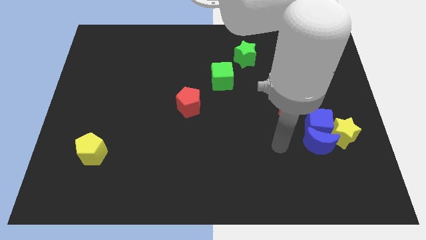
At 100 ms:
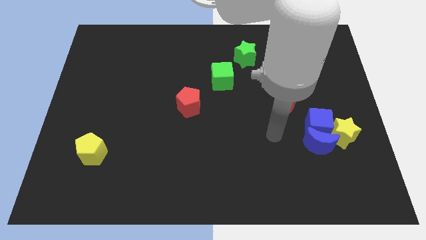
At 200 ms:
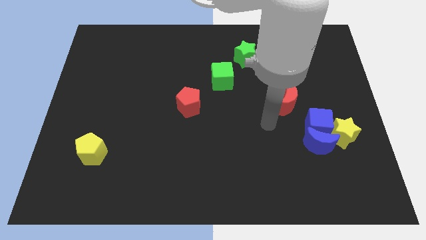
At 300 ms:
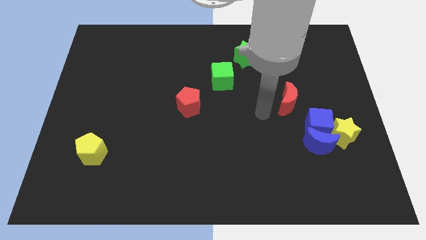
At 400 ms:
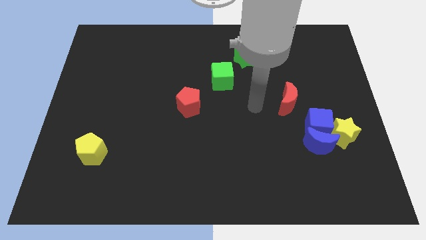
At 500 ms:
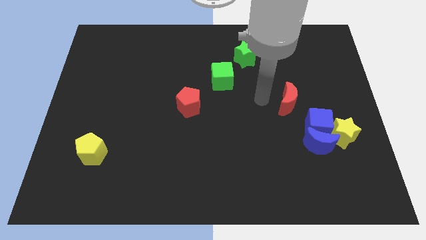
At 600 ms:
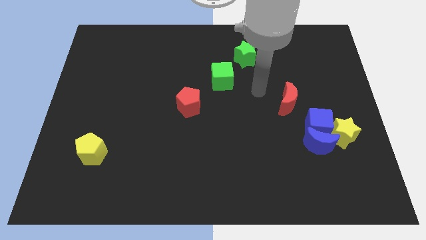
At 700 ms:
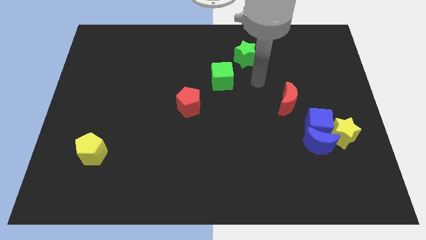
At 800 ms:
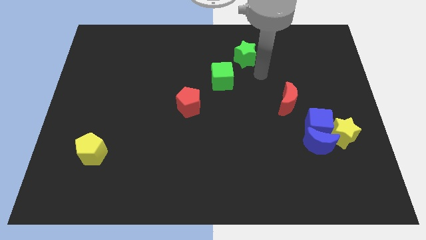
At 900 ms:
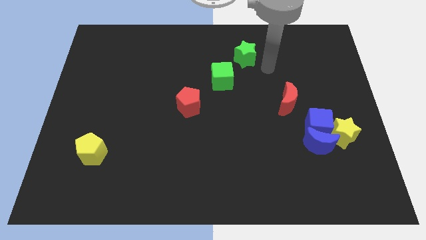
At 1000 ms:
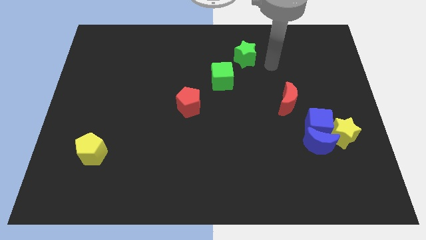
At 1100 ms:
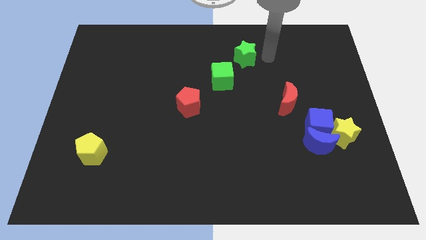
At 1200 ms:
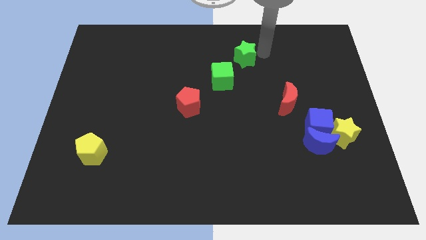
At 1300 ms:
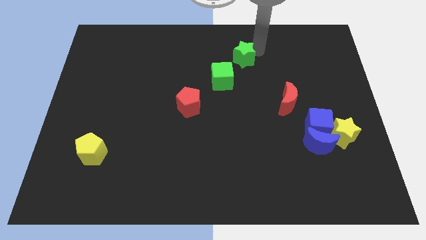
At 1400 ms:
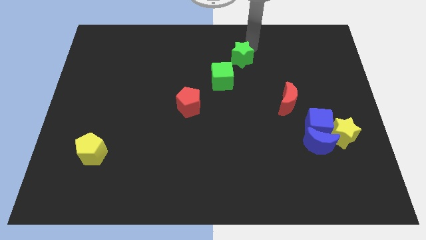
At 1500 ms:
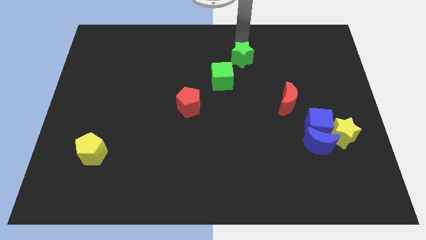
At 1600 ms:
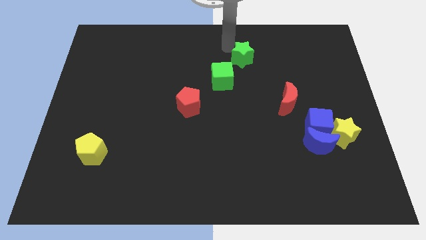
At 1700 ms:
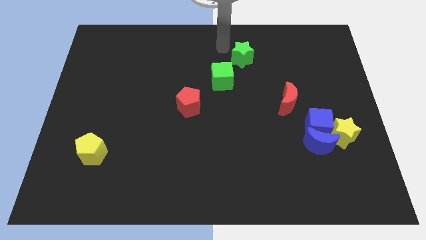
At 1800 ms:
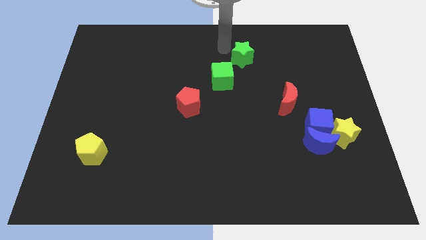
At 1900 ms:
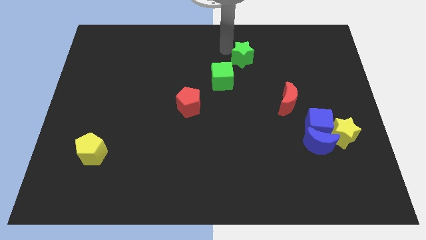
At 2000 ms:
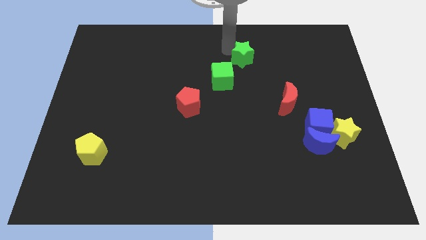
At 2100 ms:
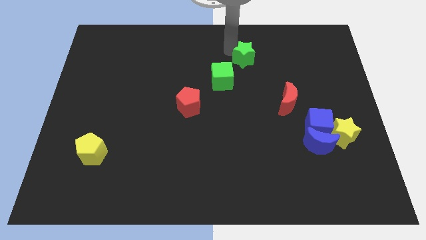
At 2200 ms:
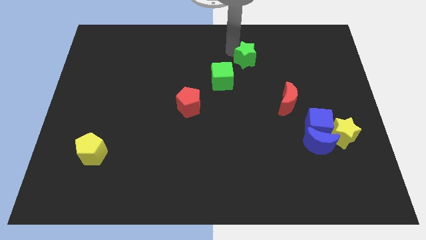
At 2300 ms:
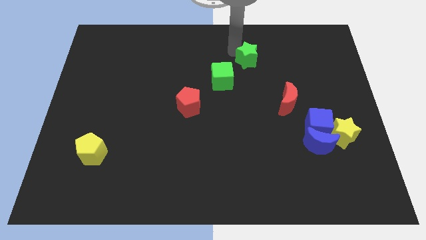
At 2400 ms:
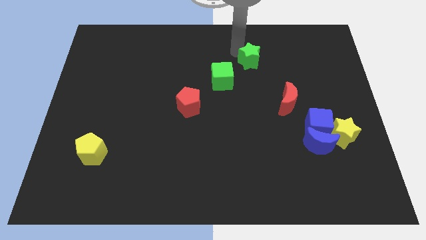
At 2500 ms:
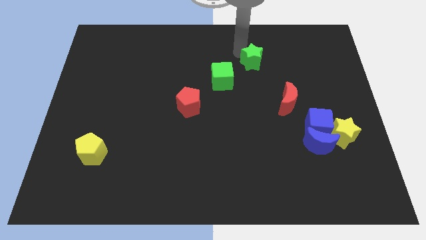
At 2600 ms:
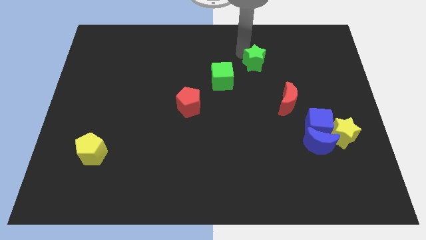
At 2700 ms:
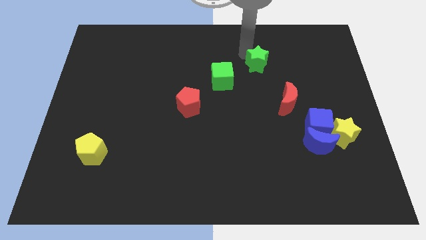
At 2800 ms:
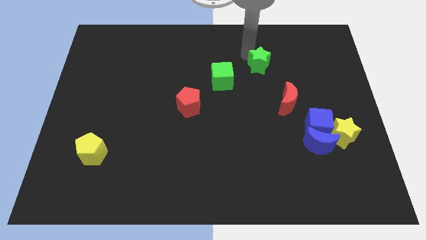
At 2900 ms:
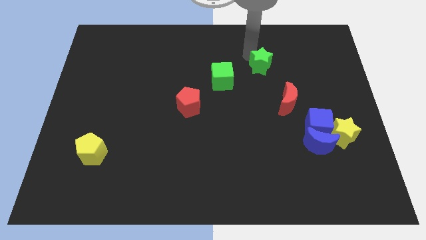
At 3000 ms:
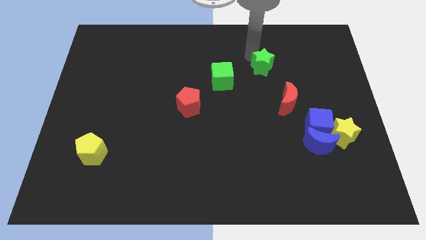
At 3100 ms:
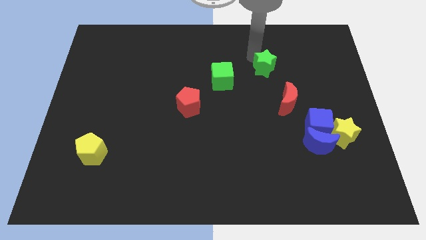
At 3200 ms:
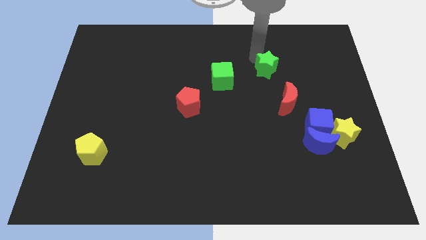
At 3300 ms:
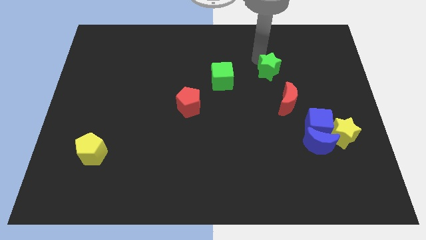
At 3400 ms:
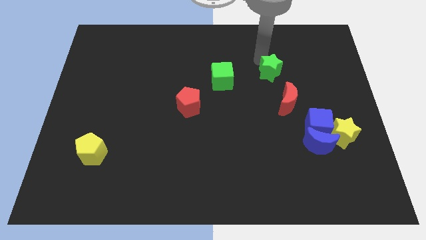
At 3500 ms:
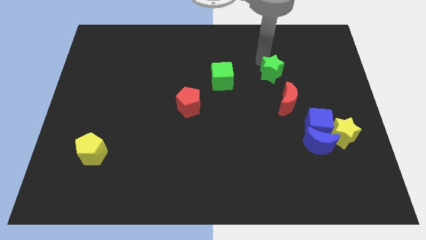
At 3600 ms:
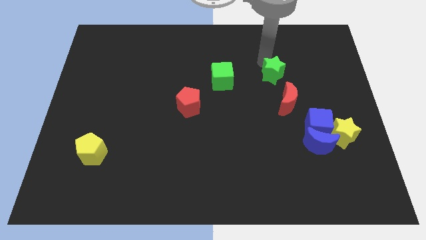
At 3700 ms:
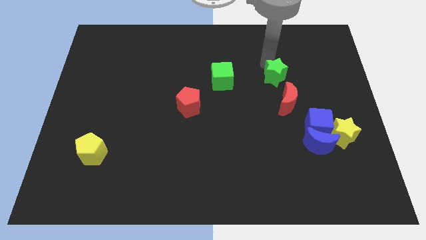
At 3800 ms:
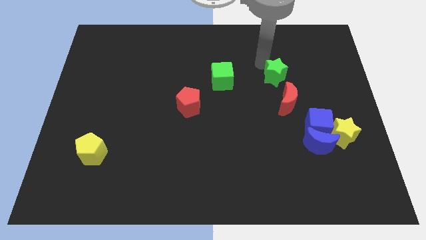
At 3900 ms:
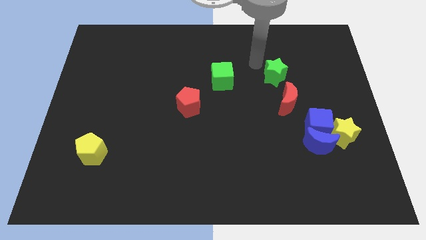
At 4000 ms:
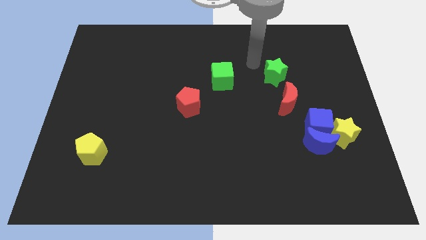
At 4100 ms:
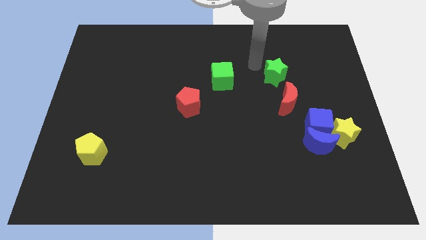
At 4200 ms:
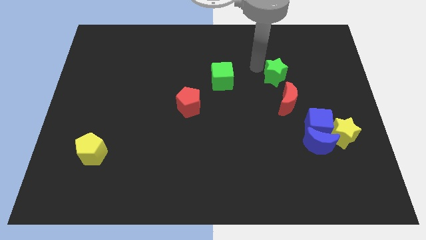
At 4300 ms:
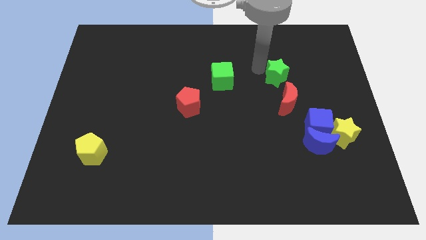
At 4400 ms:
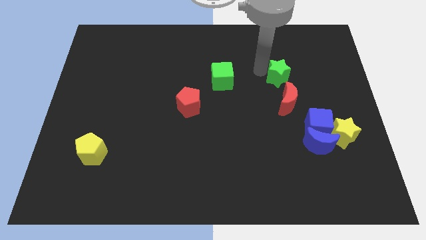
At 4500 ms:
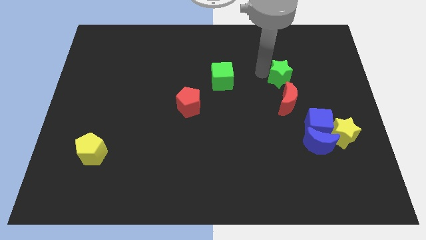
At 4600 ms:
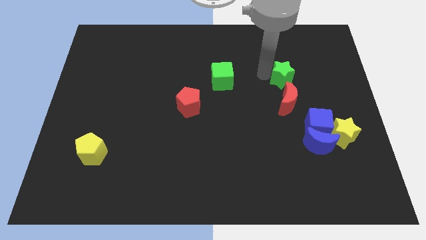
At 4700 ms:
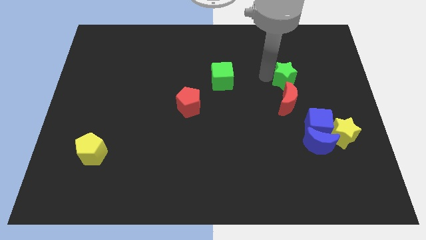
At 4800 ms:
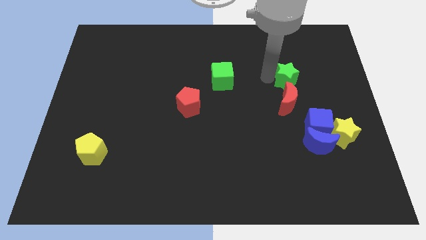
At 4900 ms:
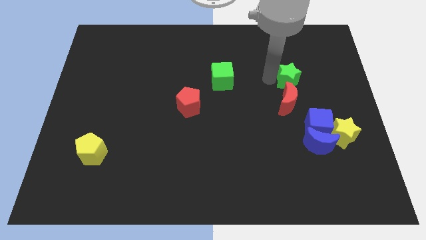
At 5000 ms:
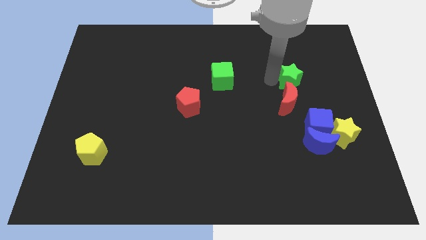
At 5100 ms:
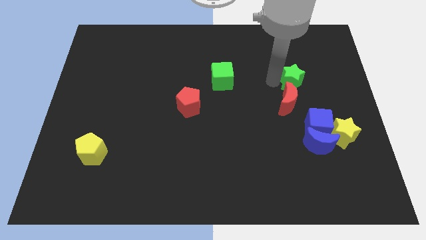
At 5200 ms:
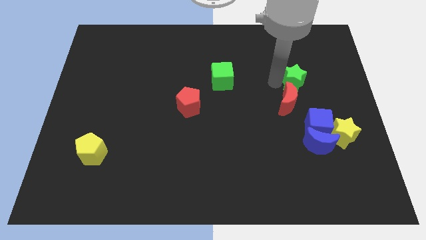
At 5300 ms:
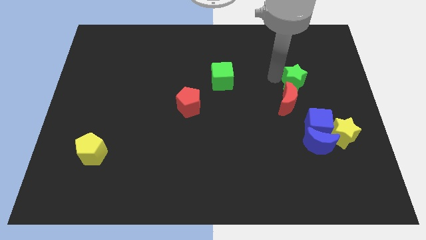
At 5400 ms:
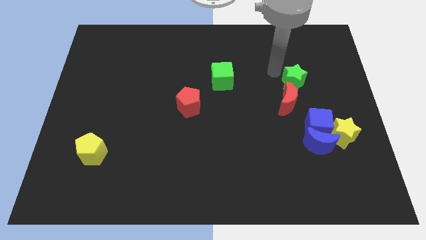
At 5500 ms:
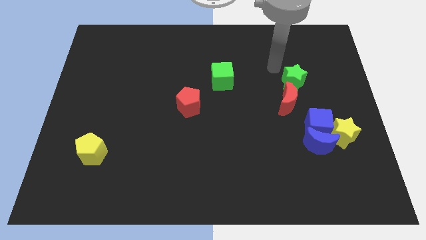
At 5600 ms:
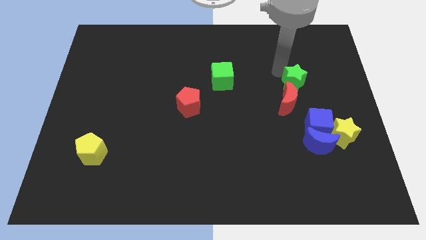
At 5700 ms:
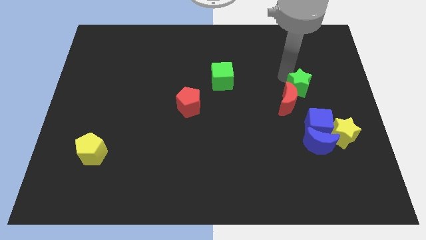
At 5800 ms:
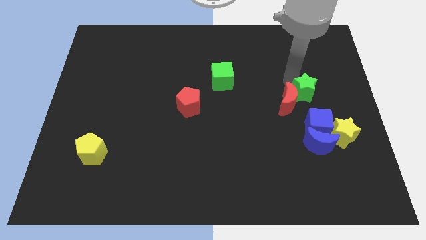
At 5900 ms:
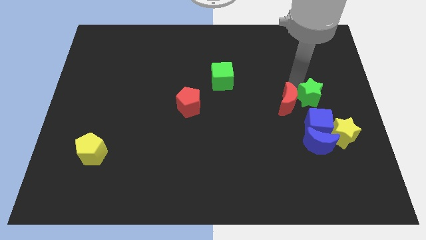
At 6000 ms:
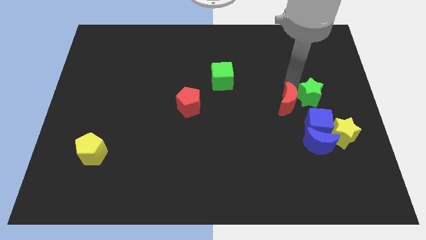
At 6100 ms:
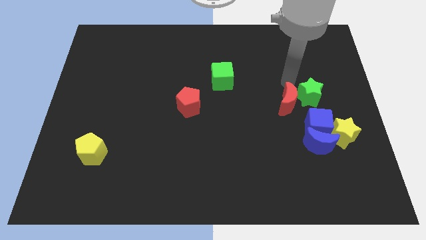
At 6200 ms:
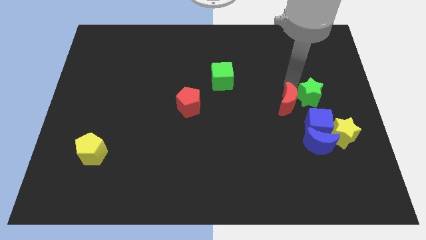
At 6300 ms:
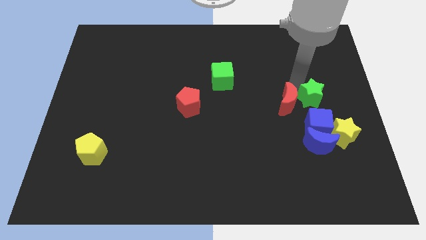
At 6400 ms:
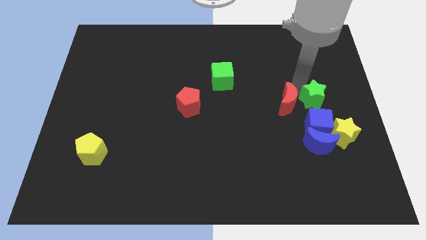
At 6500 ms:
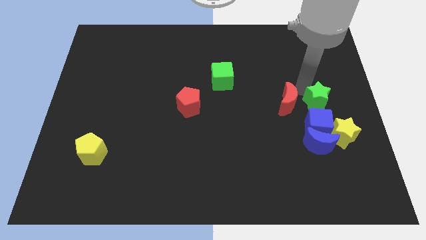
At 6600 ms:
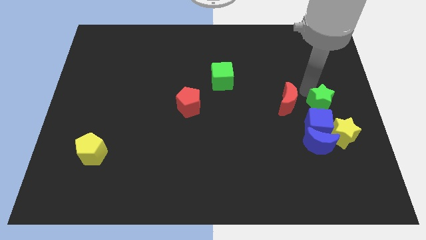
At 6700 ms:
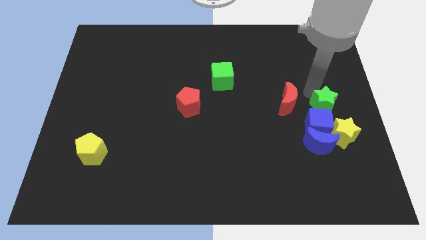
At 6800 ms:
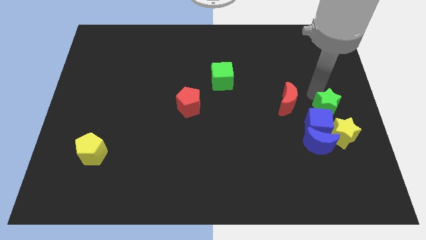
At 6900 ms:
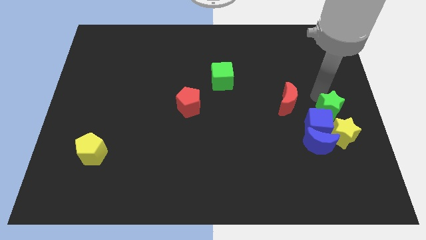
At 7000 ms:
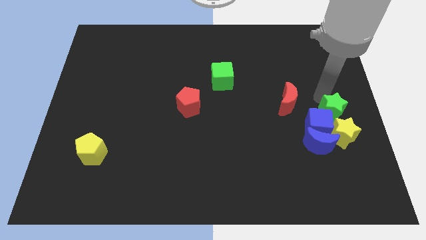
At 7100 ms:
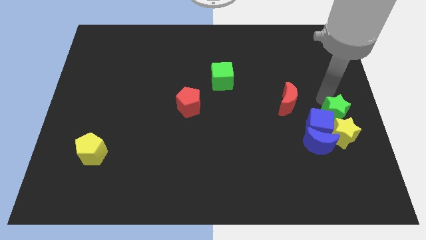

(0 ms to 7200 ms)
push the green star next to the yellow star
